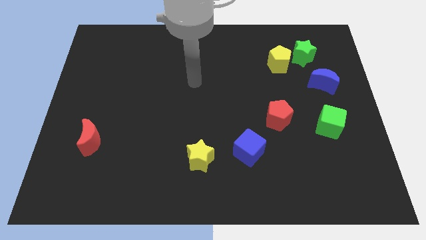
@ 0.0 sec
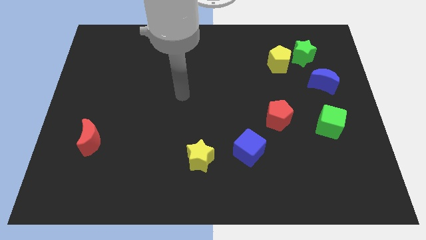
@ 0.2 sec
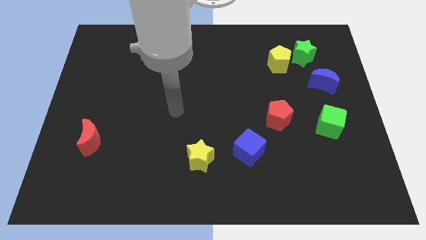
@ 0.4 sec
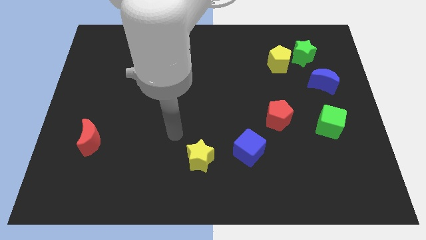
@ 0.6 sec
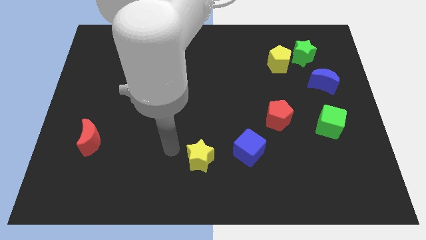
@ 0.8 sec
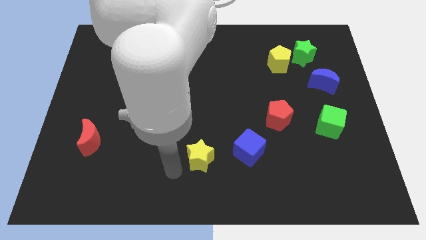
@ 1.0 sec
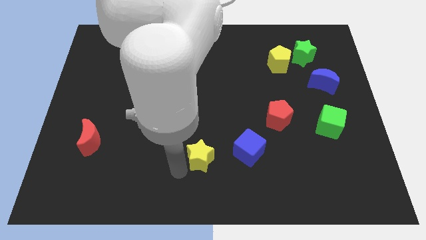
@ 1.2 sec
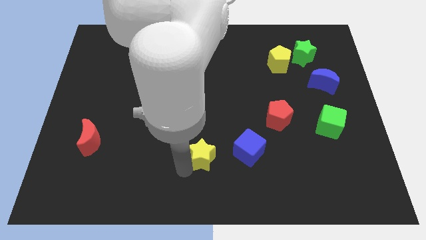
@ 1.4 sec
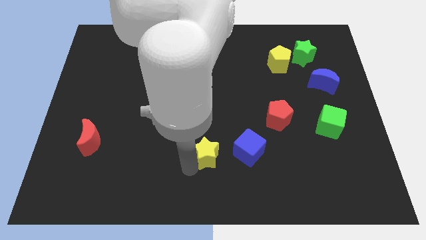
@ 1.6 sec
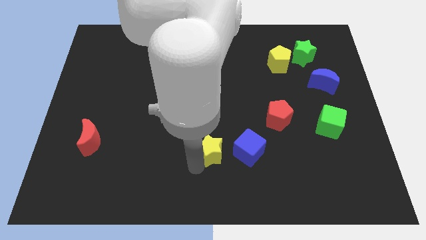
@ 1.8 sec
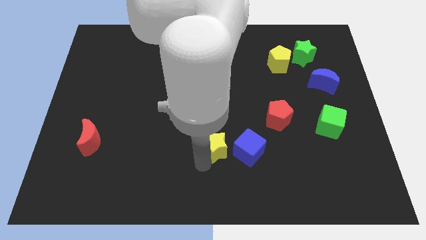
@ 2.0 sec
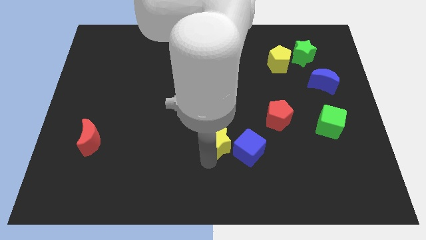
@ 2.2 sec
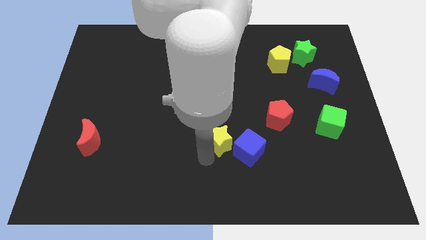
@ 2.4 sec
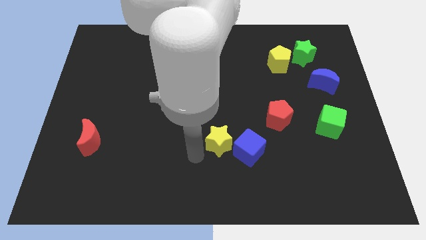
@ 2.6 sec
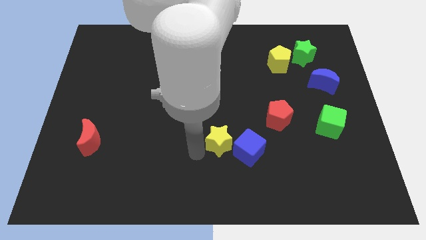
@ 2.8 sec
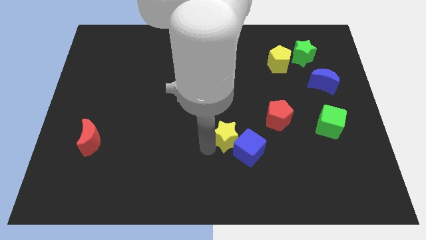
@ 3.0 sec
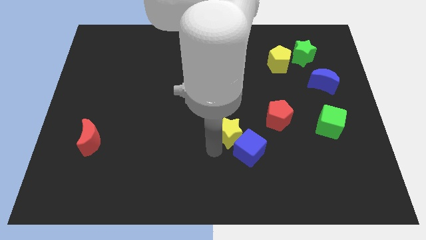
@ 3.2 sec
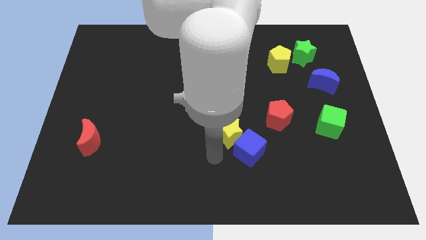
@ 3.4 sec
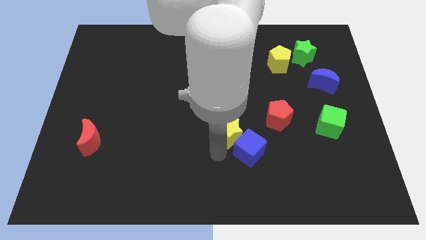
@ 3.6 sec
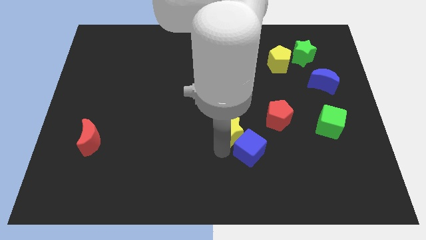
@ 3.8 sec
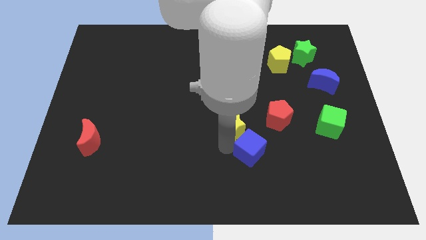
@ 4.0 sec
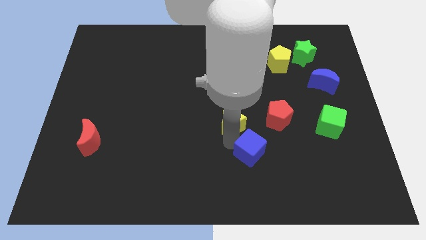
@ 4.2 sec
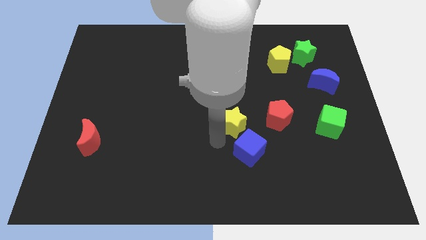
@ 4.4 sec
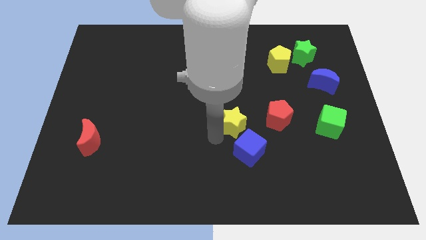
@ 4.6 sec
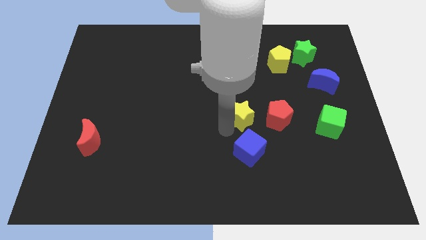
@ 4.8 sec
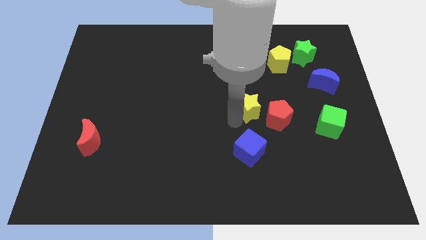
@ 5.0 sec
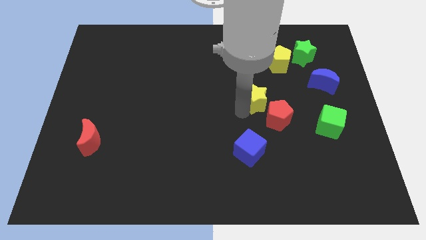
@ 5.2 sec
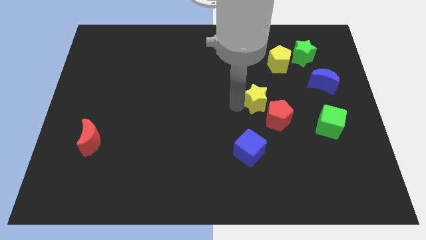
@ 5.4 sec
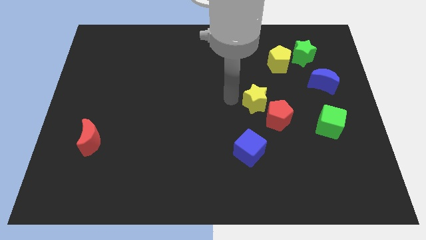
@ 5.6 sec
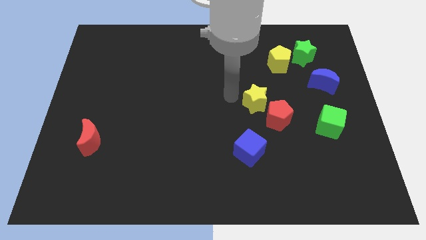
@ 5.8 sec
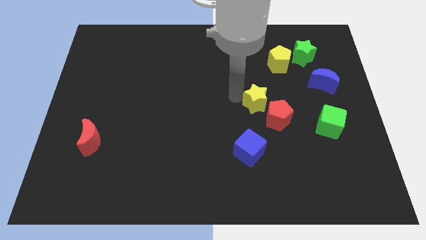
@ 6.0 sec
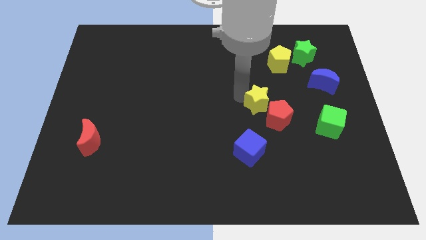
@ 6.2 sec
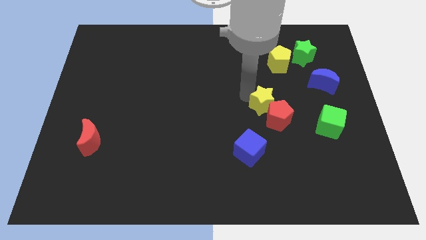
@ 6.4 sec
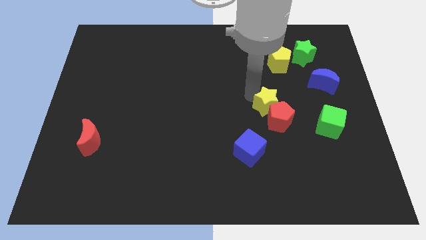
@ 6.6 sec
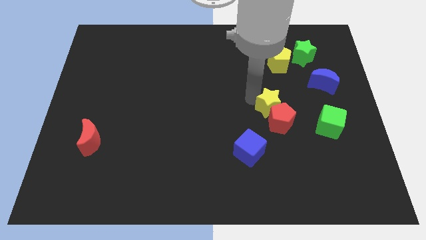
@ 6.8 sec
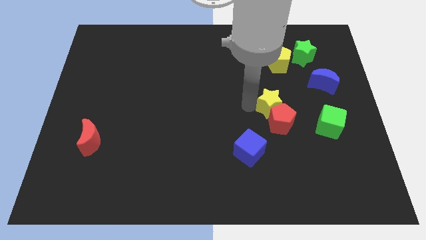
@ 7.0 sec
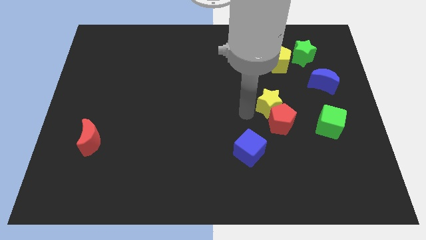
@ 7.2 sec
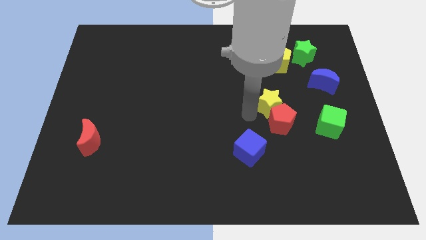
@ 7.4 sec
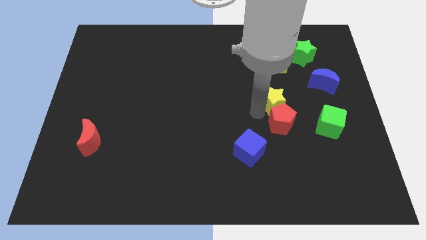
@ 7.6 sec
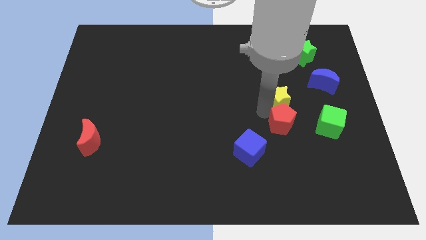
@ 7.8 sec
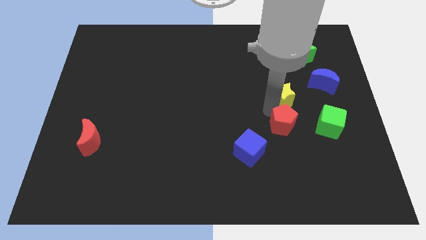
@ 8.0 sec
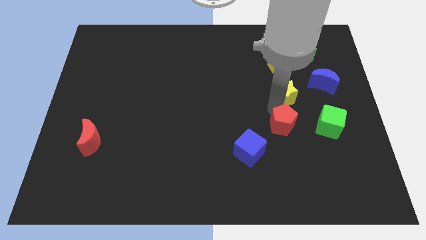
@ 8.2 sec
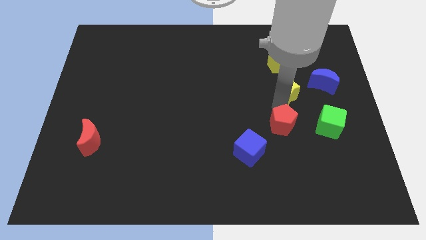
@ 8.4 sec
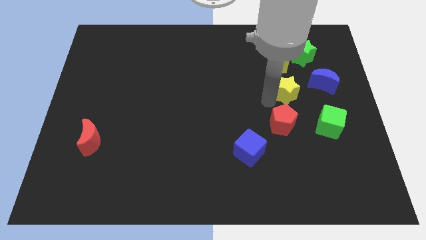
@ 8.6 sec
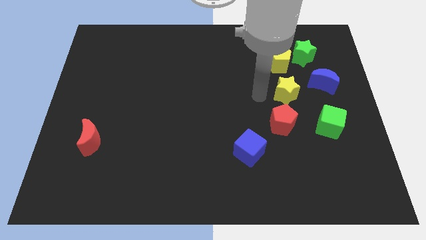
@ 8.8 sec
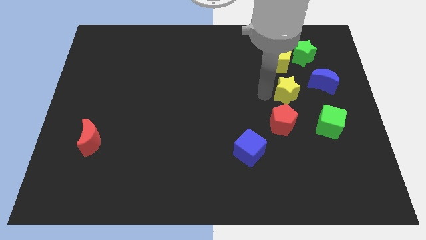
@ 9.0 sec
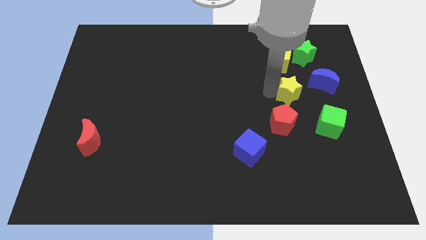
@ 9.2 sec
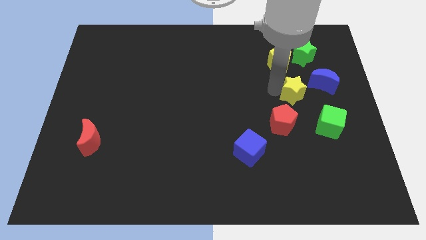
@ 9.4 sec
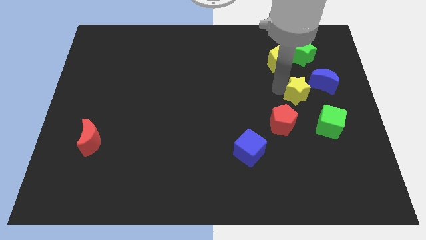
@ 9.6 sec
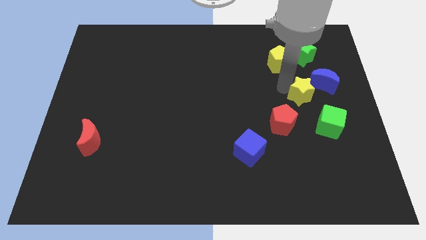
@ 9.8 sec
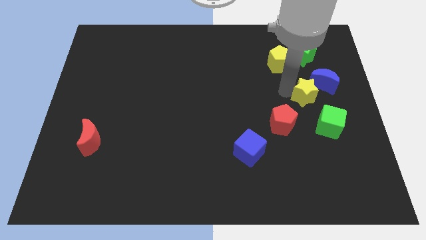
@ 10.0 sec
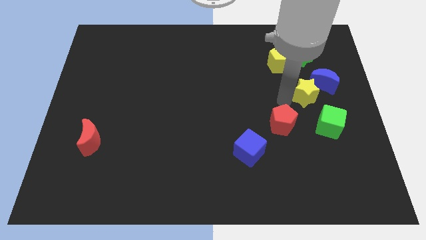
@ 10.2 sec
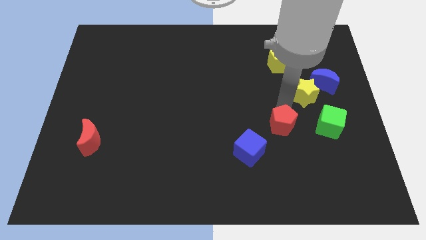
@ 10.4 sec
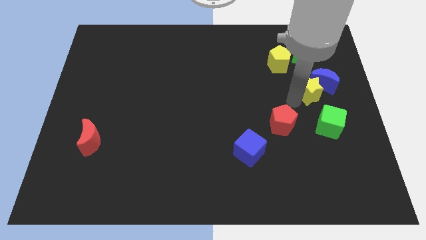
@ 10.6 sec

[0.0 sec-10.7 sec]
push the yellow star next to the blue moon

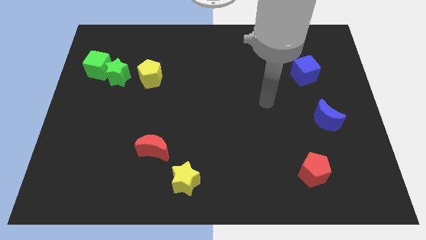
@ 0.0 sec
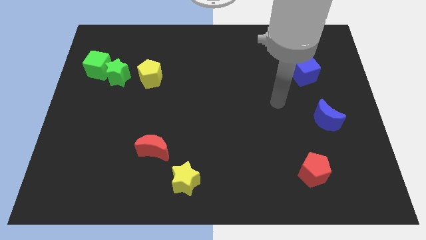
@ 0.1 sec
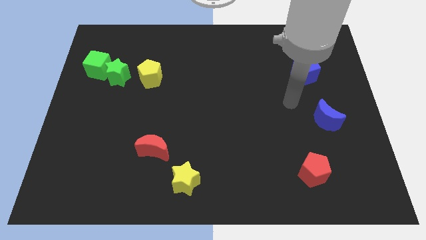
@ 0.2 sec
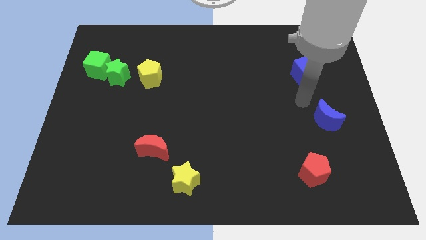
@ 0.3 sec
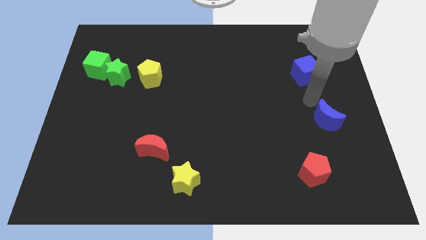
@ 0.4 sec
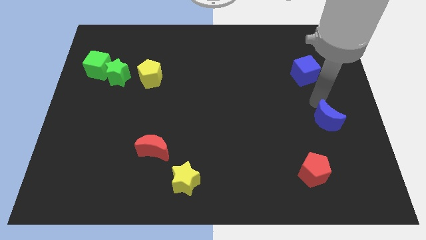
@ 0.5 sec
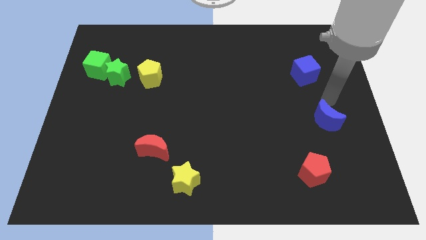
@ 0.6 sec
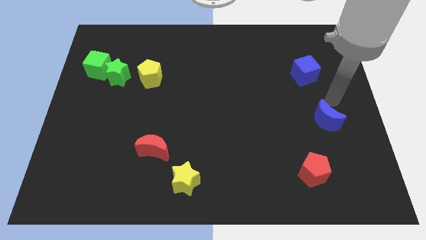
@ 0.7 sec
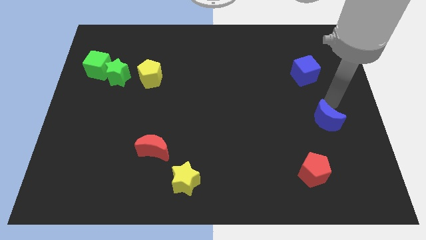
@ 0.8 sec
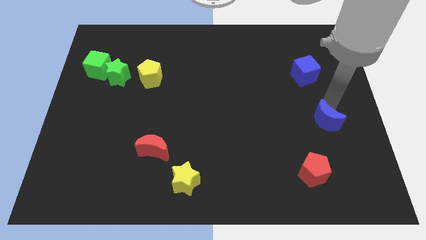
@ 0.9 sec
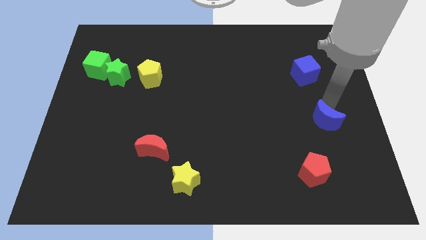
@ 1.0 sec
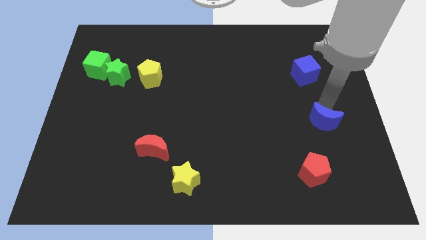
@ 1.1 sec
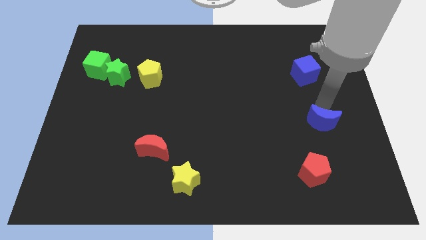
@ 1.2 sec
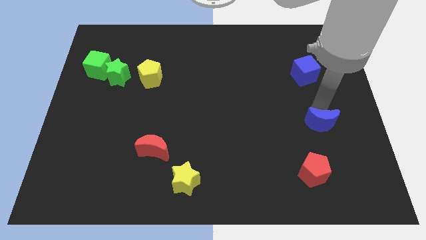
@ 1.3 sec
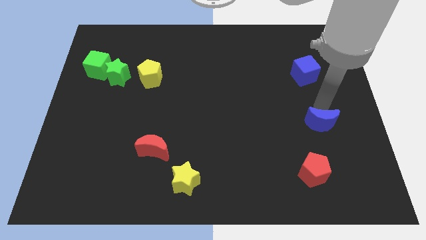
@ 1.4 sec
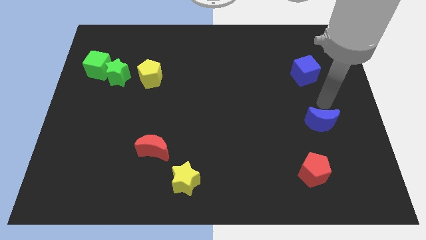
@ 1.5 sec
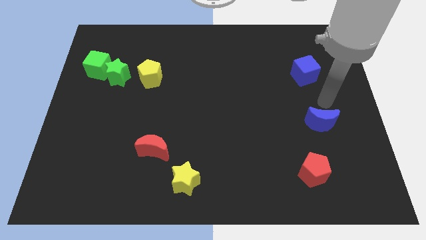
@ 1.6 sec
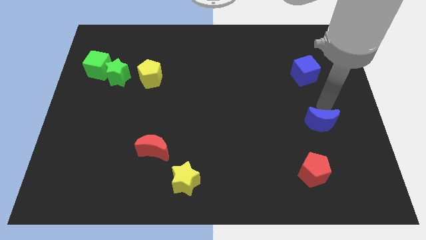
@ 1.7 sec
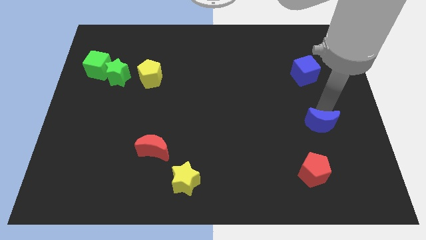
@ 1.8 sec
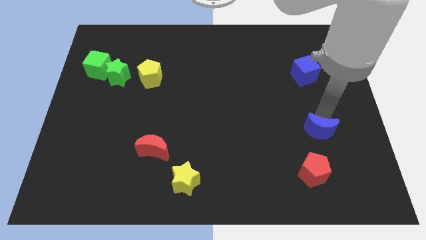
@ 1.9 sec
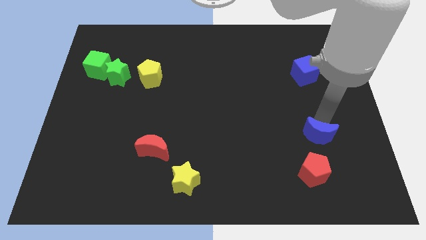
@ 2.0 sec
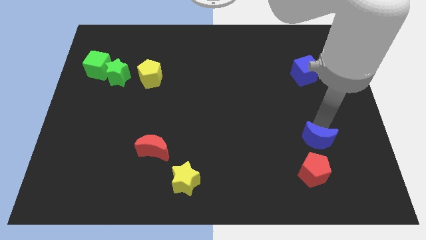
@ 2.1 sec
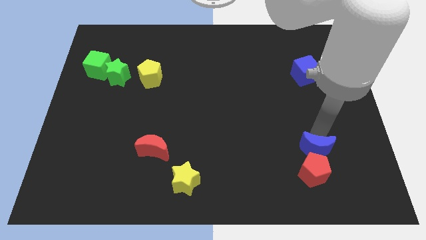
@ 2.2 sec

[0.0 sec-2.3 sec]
push the blue moon to the red pentagon
